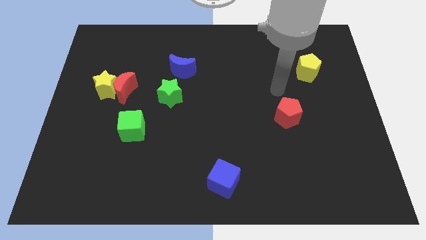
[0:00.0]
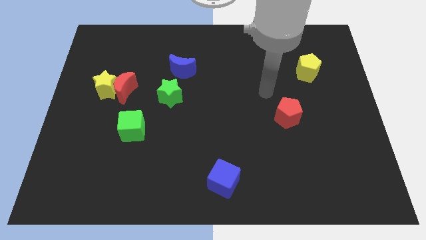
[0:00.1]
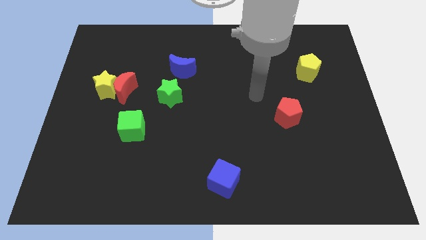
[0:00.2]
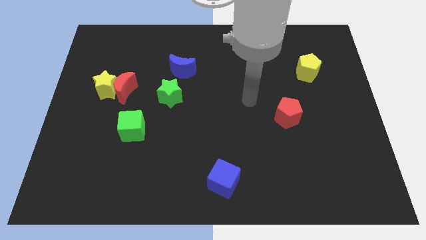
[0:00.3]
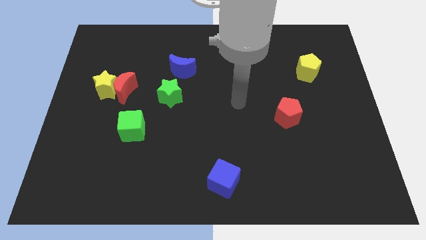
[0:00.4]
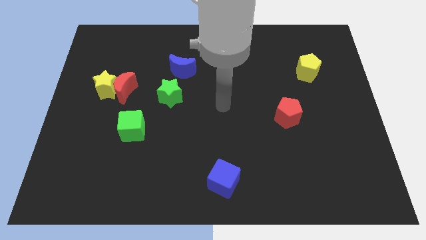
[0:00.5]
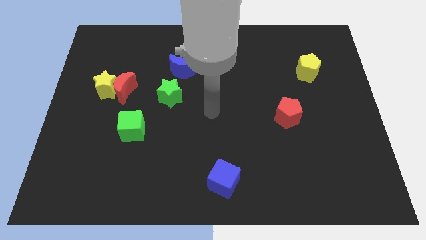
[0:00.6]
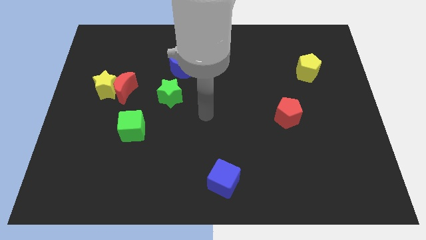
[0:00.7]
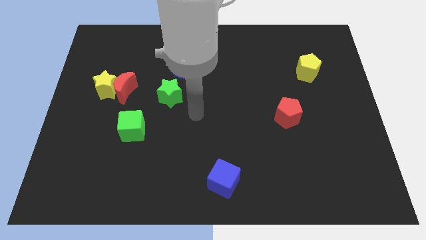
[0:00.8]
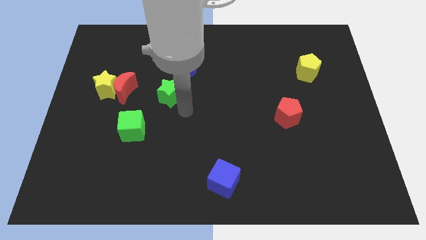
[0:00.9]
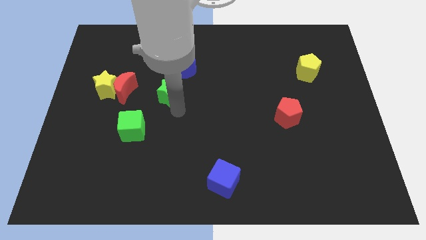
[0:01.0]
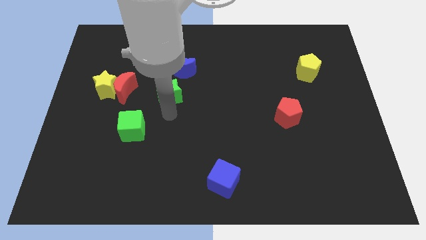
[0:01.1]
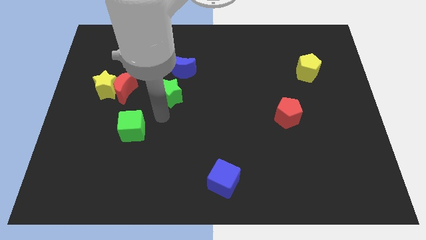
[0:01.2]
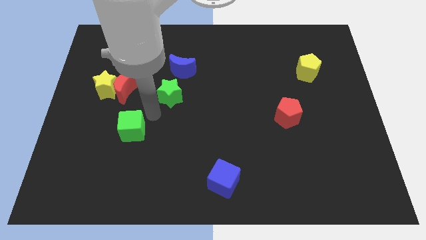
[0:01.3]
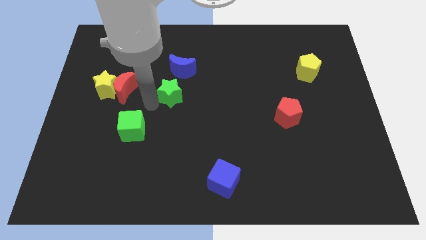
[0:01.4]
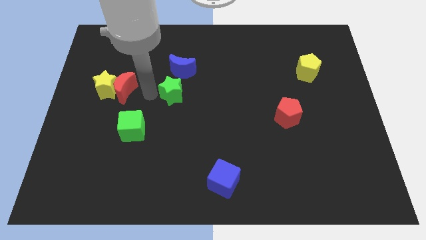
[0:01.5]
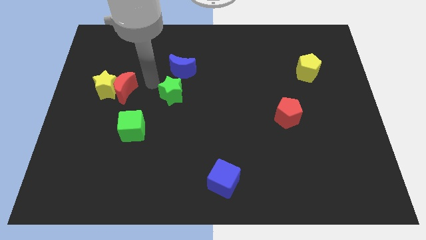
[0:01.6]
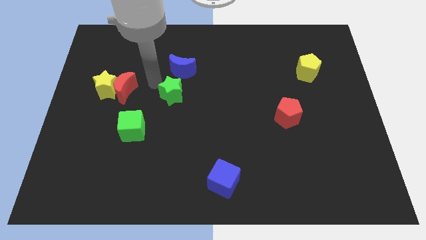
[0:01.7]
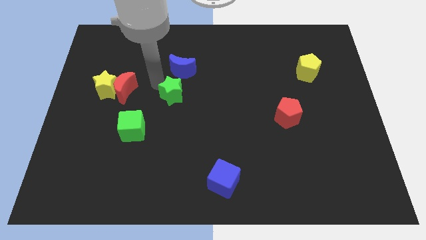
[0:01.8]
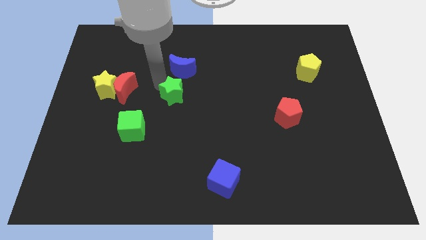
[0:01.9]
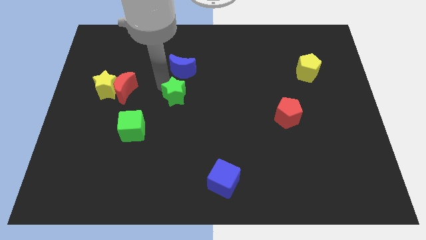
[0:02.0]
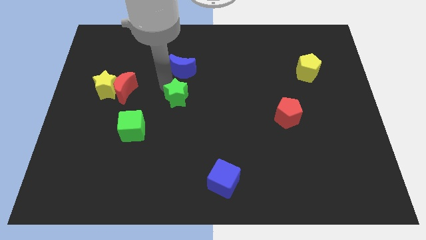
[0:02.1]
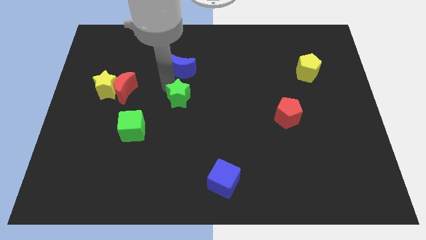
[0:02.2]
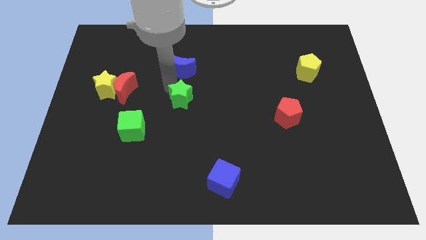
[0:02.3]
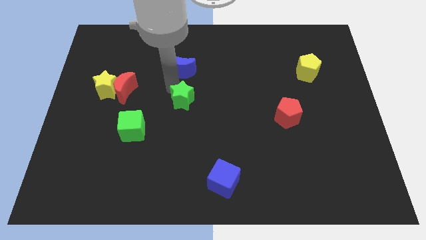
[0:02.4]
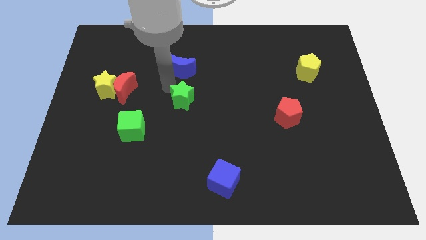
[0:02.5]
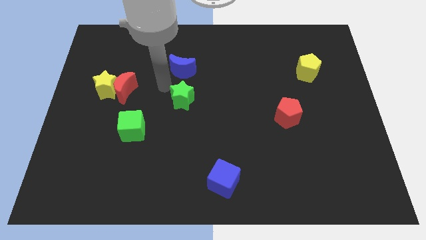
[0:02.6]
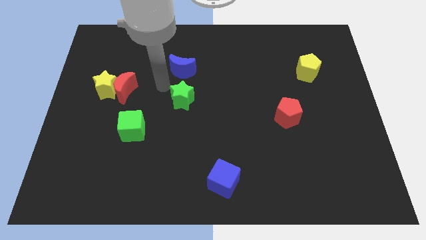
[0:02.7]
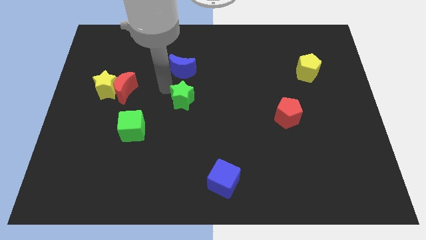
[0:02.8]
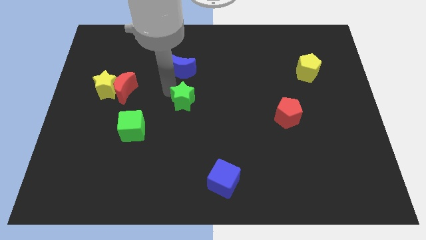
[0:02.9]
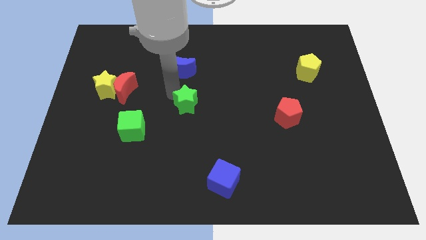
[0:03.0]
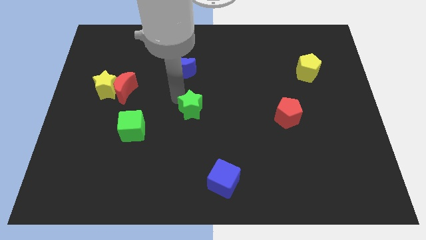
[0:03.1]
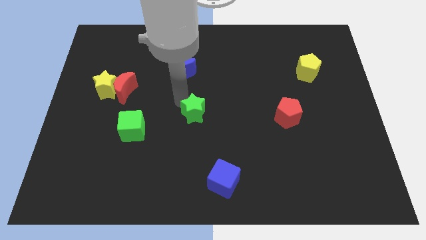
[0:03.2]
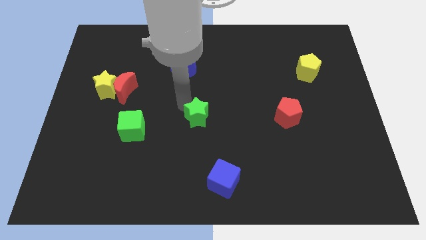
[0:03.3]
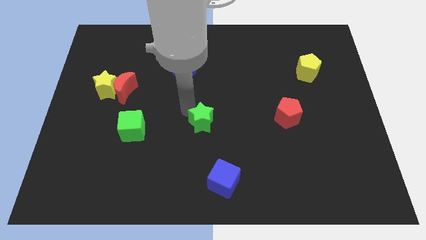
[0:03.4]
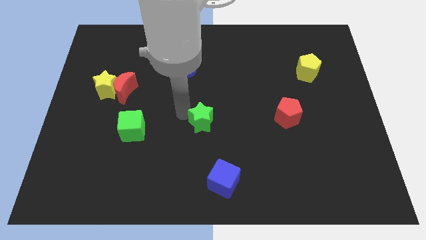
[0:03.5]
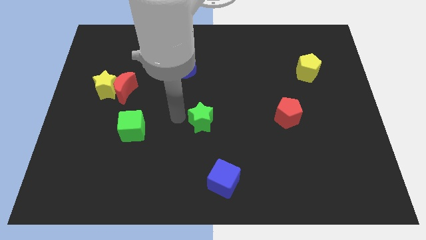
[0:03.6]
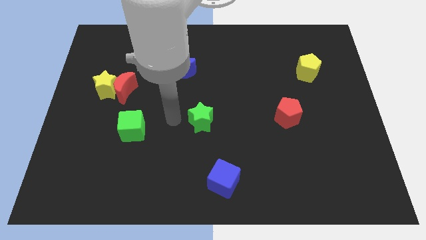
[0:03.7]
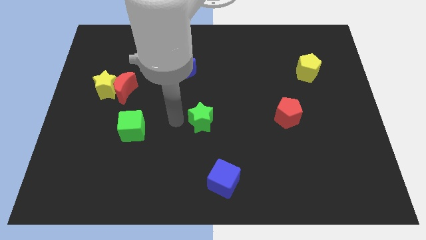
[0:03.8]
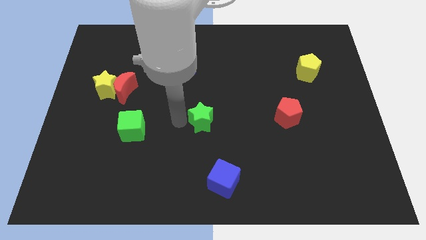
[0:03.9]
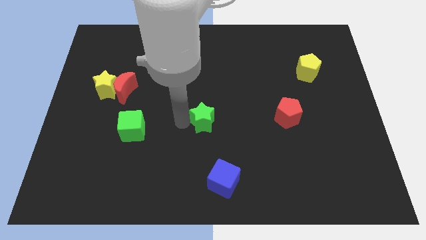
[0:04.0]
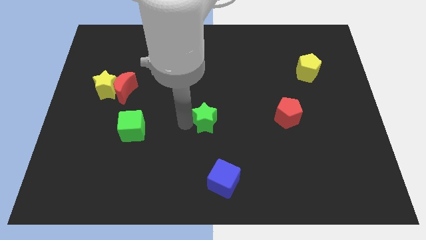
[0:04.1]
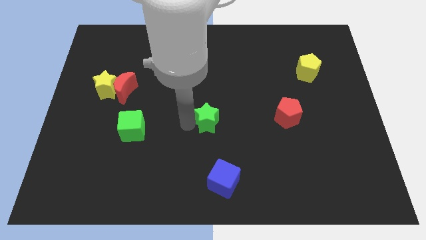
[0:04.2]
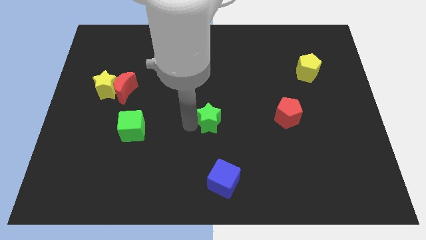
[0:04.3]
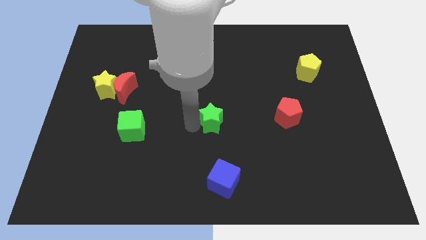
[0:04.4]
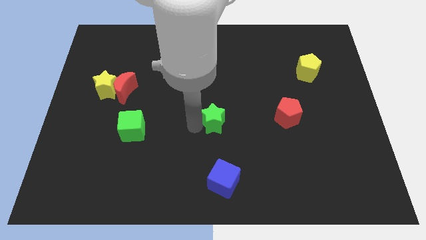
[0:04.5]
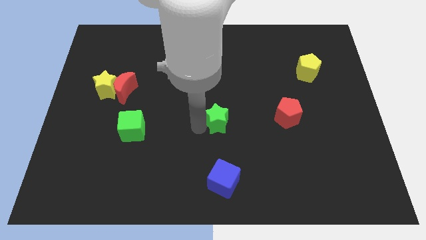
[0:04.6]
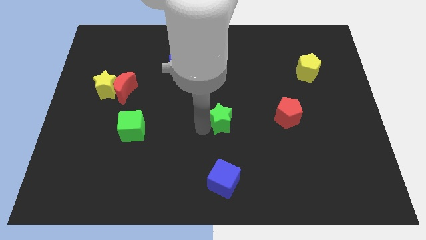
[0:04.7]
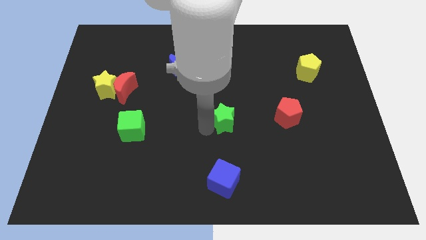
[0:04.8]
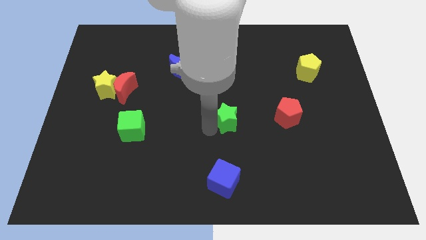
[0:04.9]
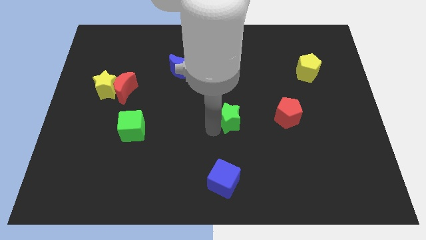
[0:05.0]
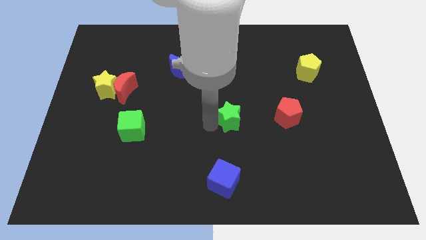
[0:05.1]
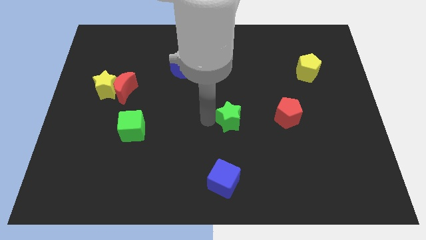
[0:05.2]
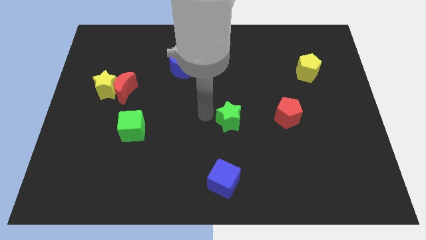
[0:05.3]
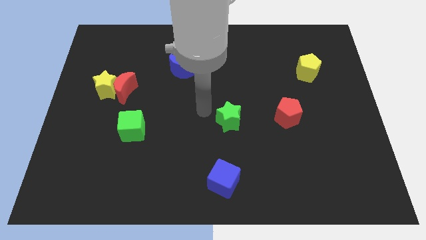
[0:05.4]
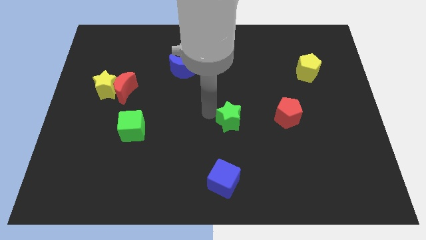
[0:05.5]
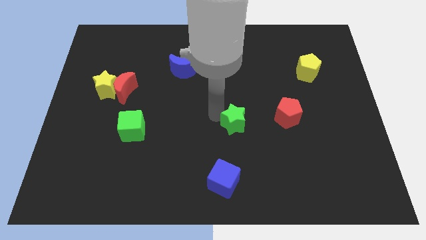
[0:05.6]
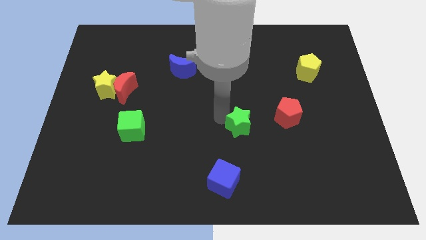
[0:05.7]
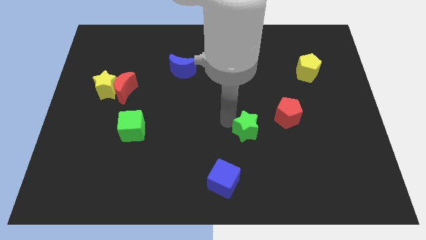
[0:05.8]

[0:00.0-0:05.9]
push the green star diagonally down and to the left of the red pentagon

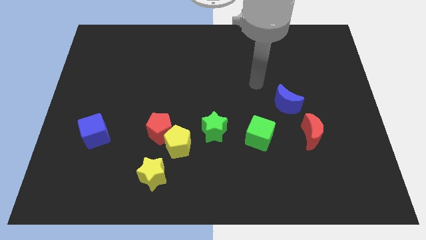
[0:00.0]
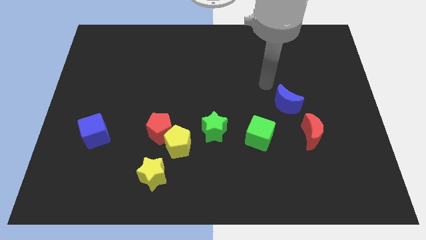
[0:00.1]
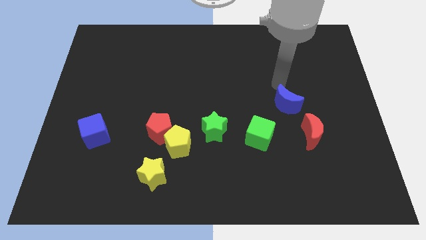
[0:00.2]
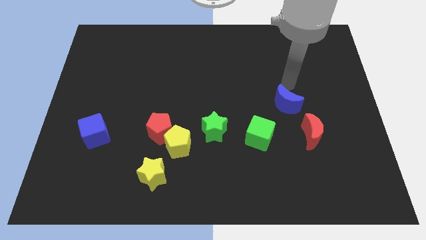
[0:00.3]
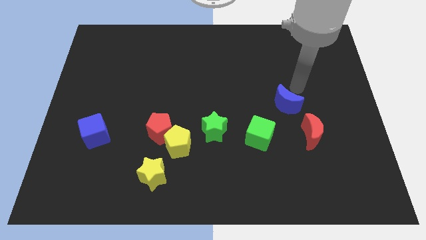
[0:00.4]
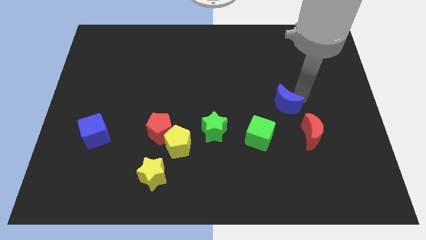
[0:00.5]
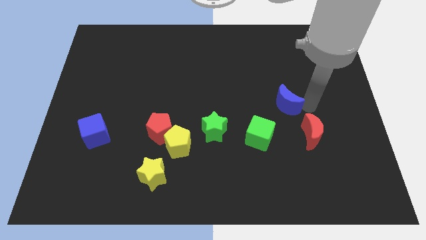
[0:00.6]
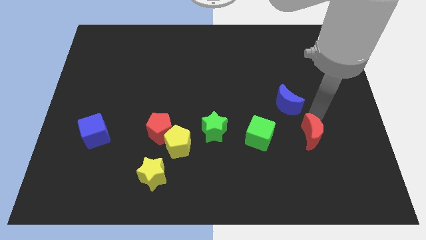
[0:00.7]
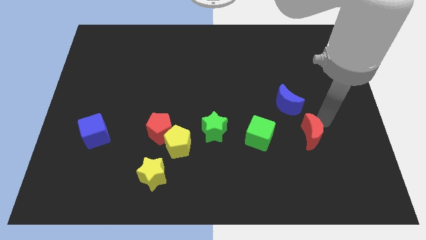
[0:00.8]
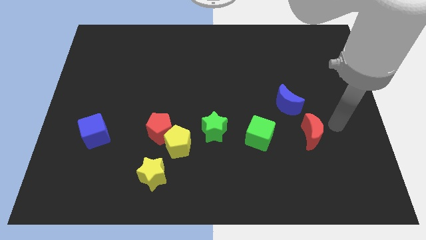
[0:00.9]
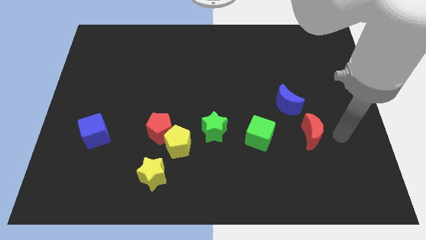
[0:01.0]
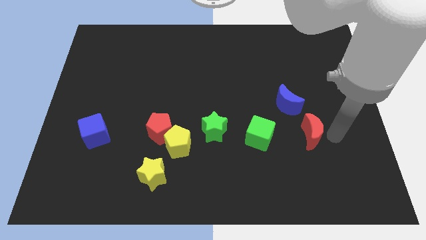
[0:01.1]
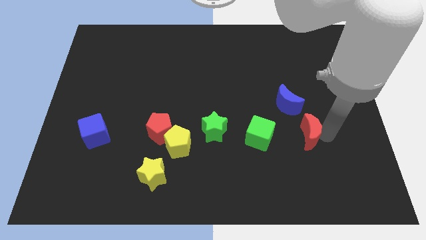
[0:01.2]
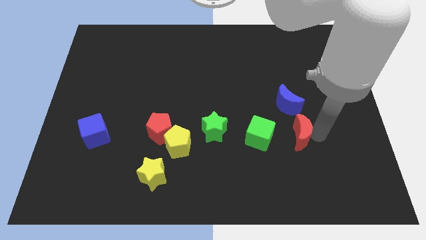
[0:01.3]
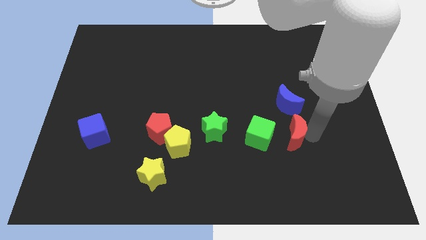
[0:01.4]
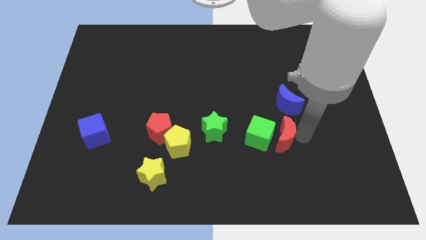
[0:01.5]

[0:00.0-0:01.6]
put the red moon to the right of the green star
